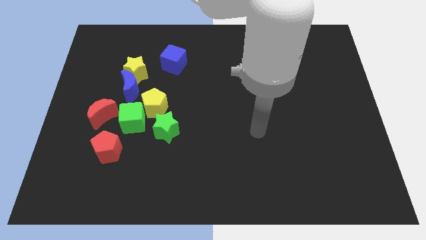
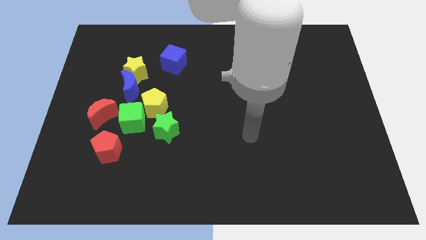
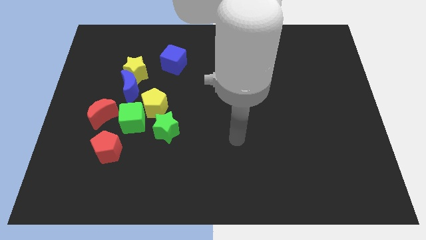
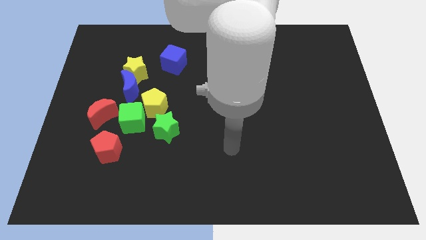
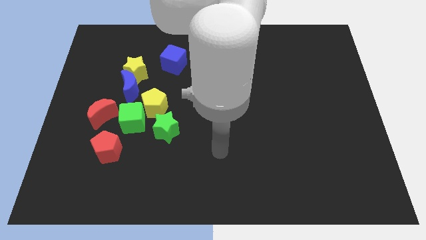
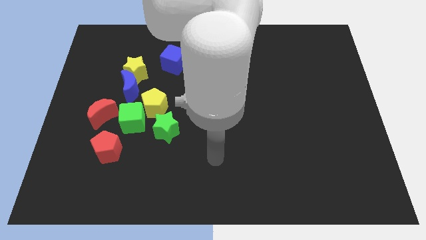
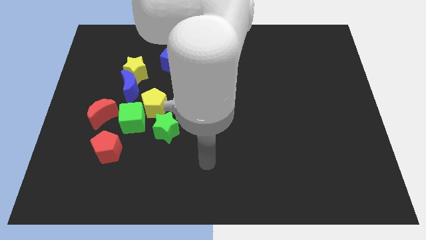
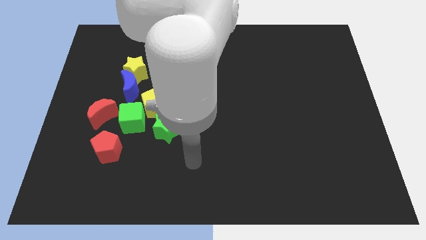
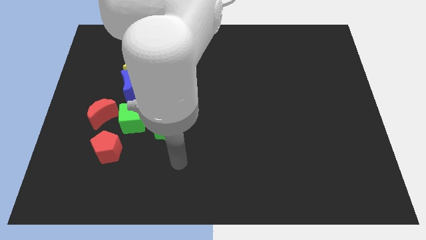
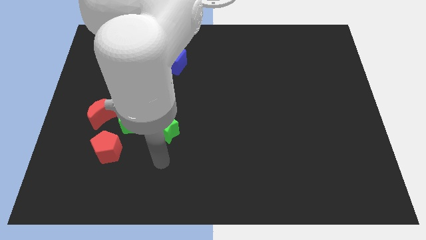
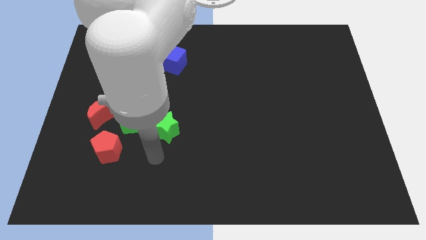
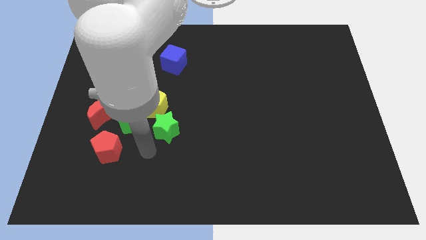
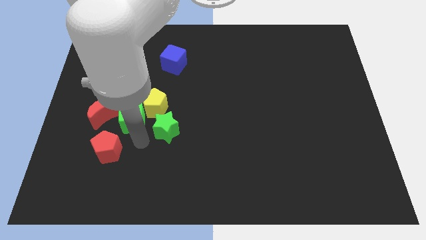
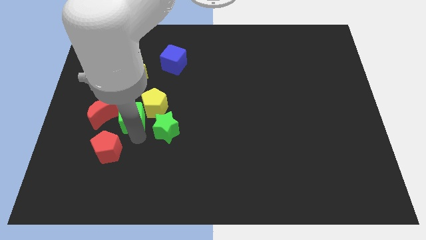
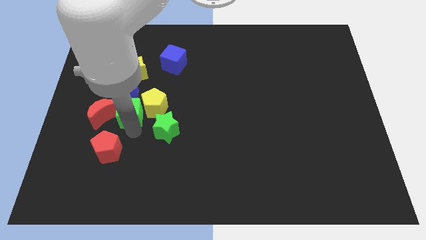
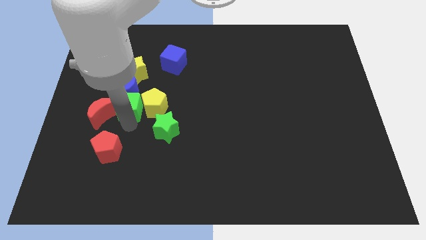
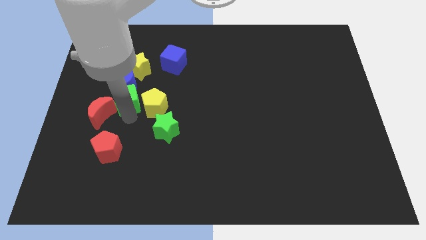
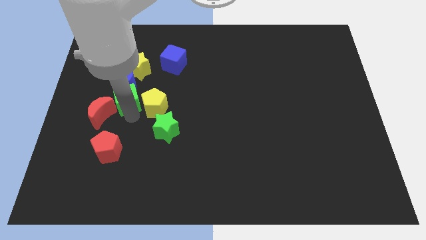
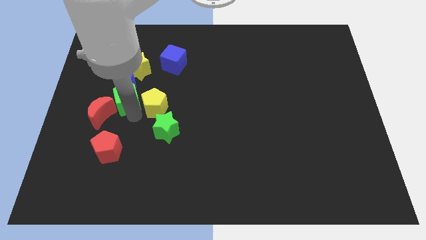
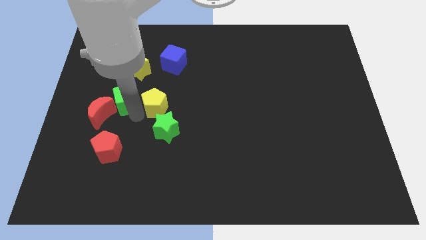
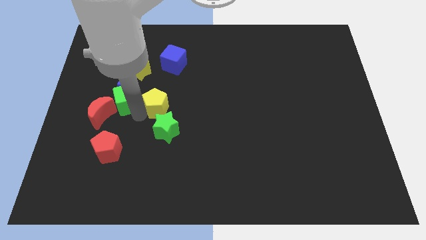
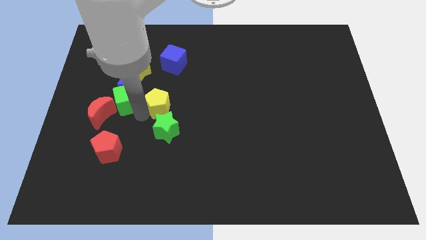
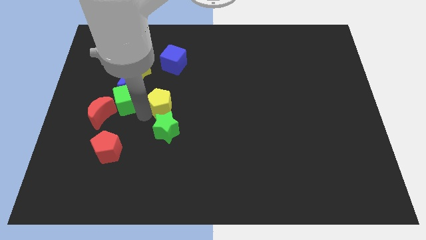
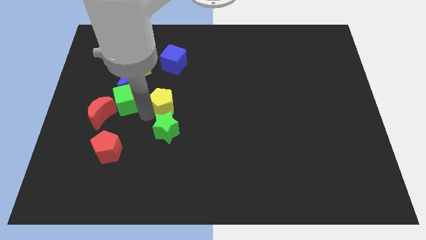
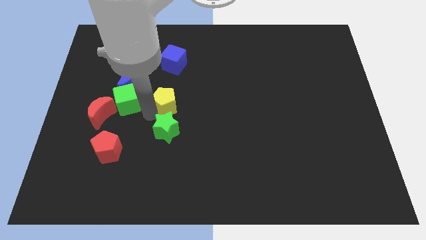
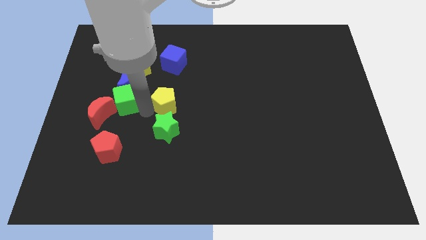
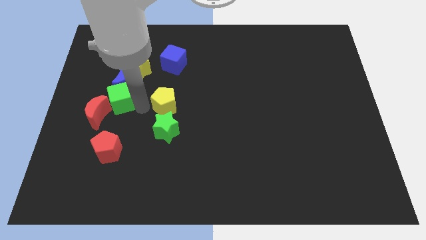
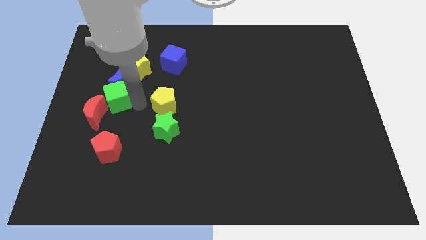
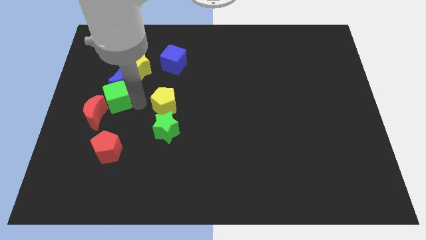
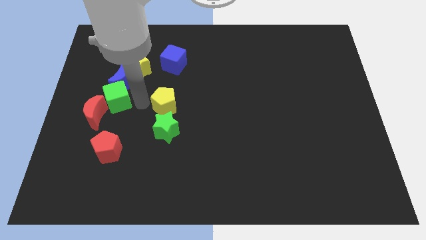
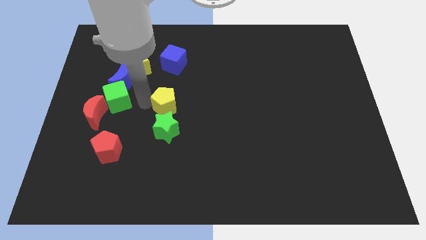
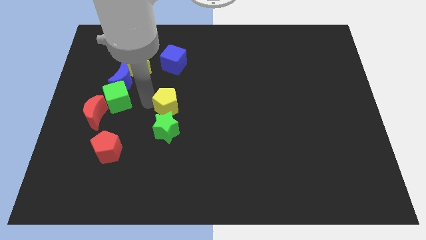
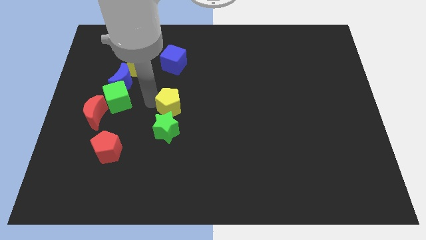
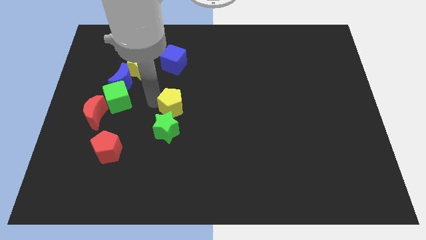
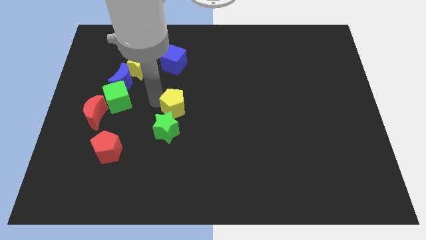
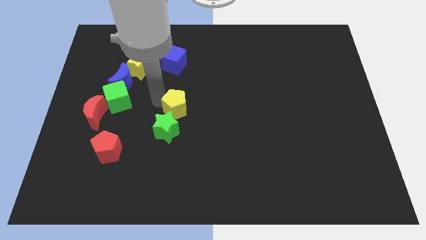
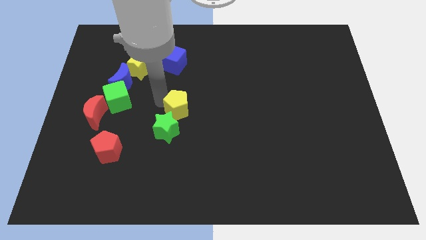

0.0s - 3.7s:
move the yellow pentagon away from the green cube, green star, and blue moon

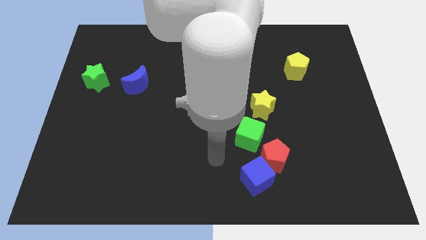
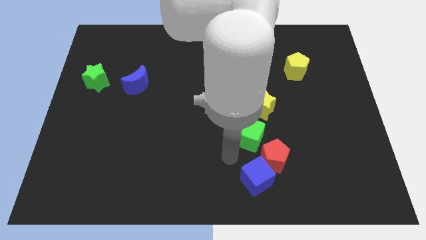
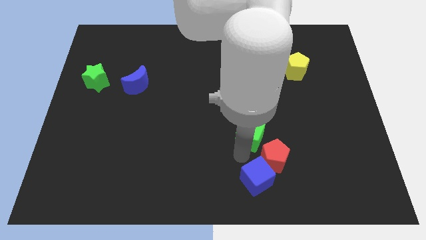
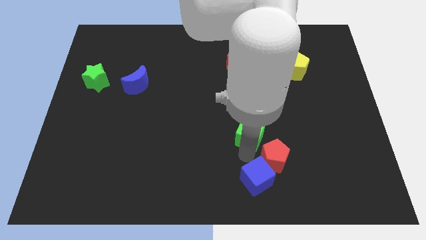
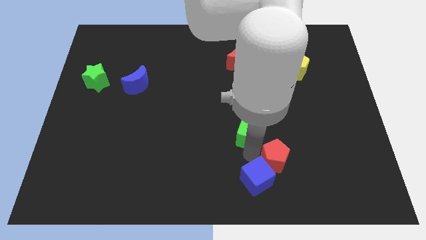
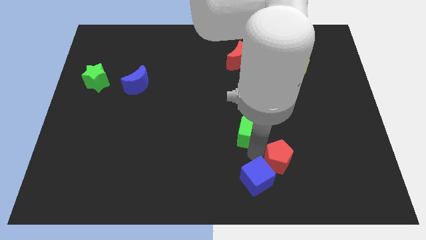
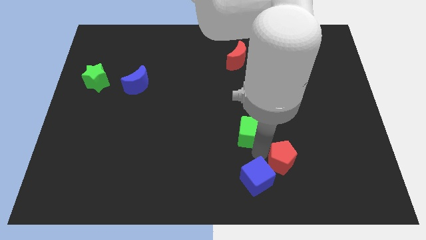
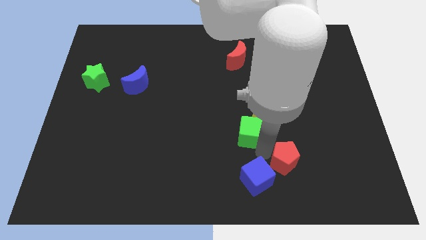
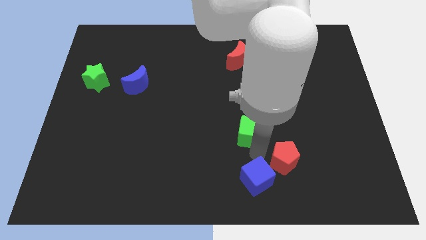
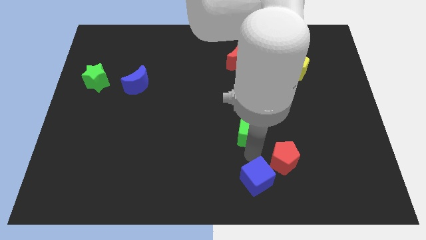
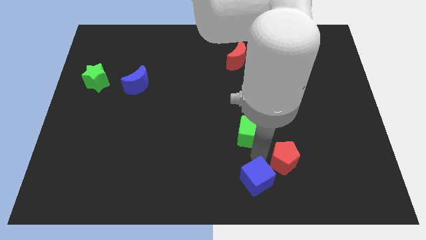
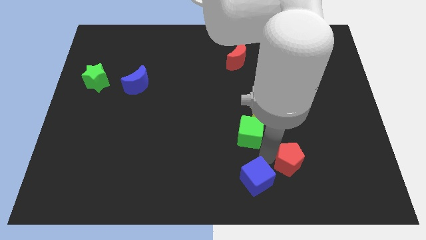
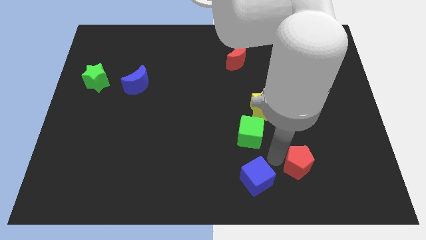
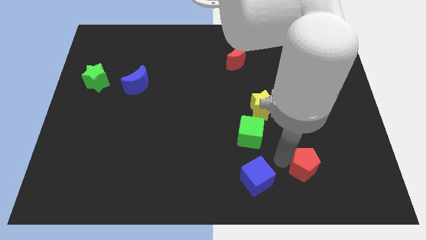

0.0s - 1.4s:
move the red pentagon away from the blue cube and green cube

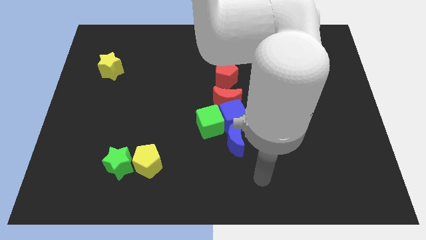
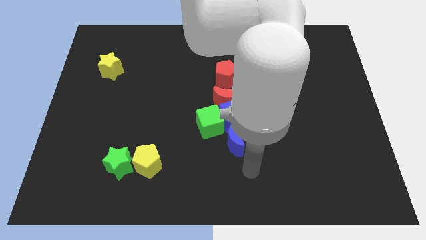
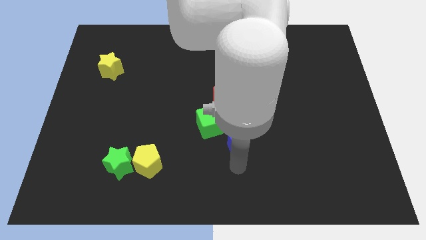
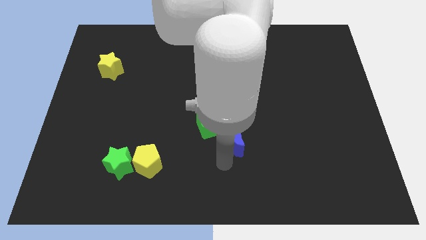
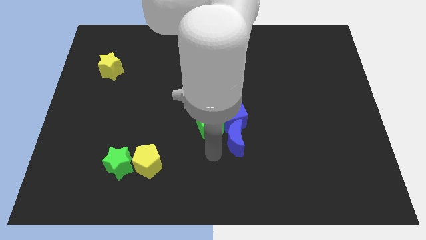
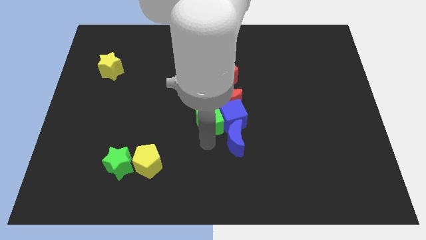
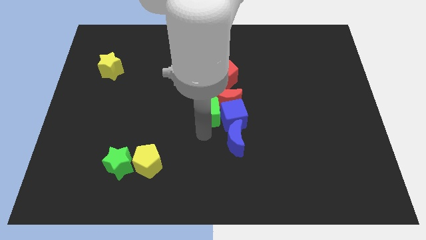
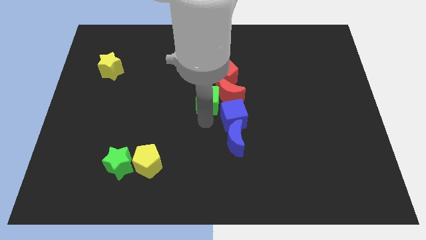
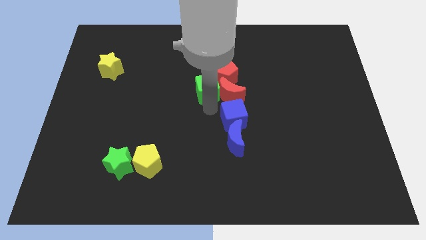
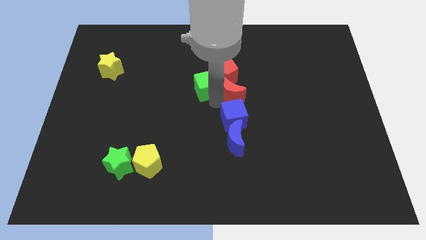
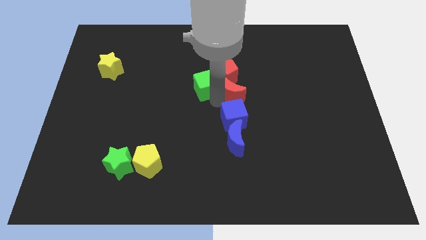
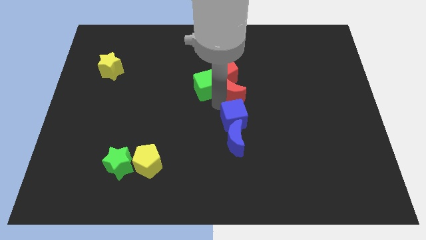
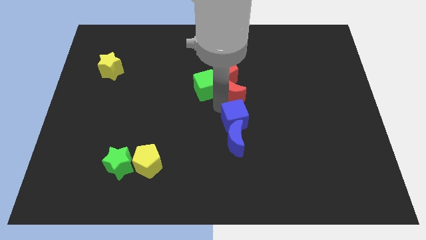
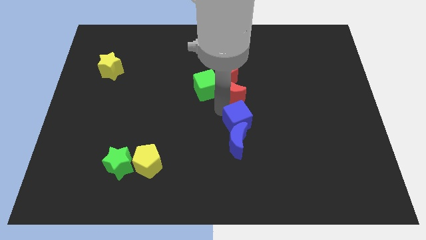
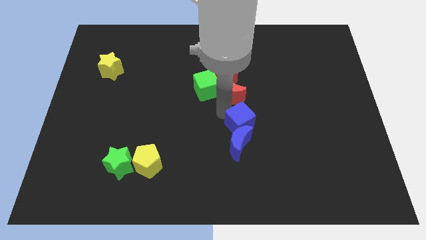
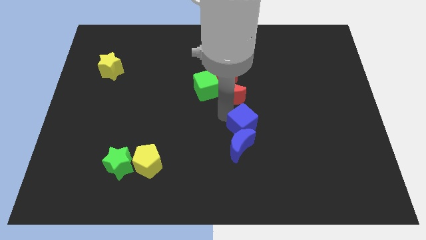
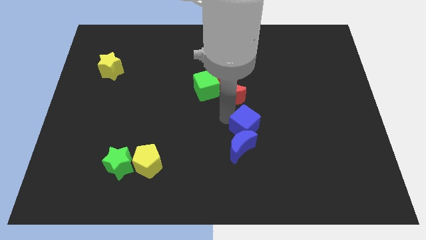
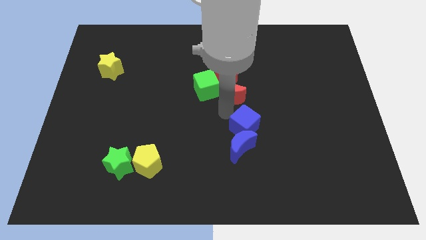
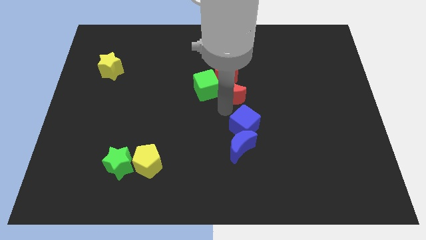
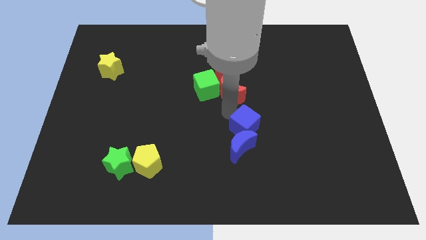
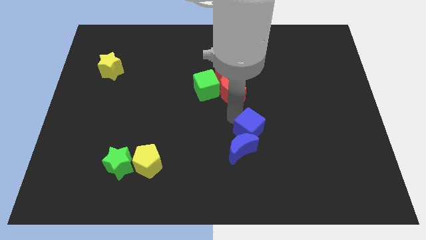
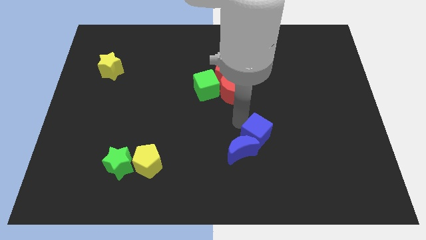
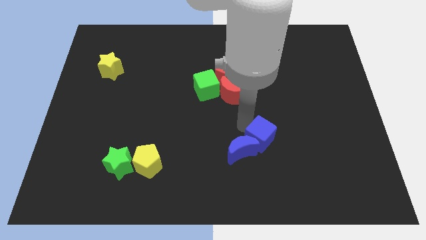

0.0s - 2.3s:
move the blue cube away from the clump

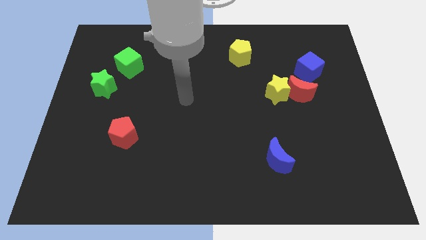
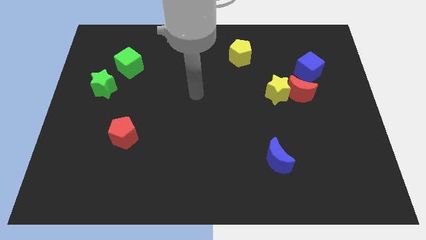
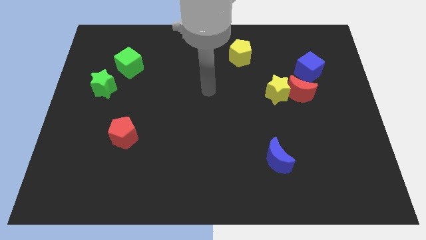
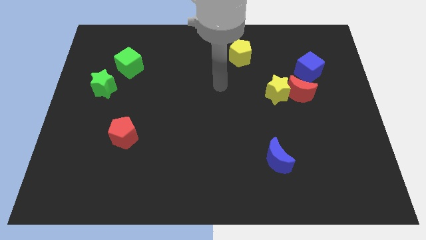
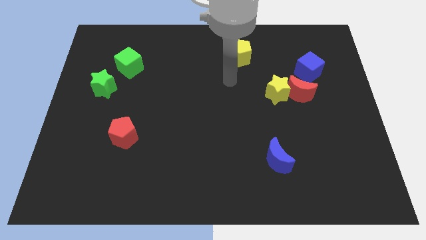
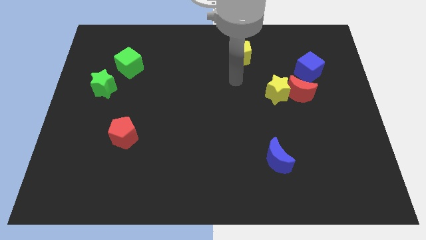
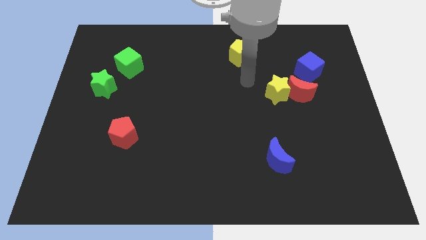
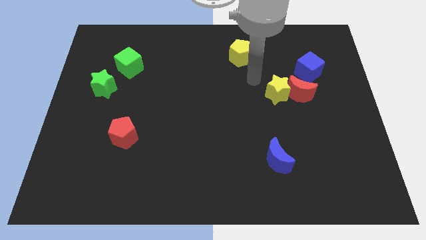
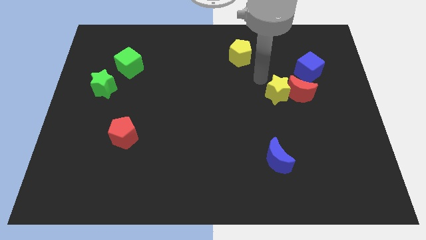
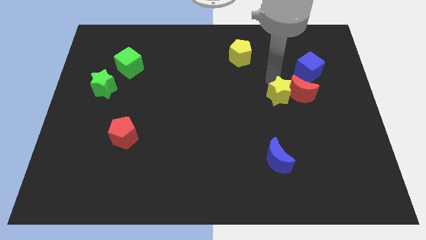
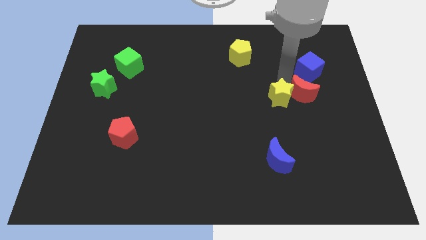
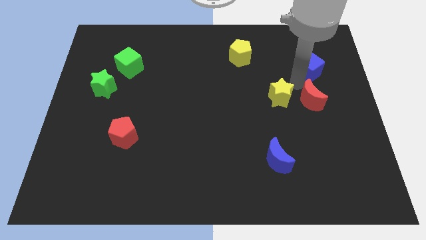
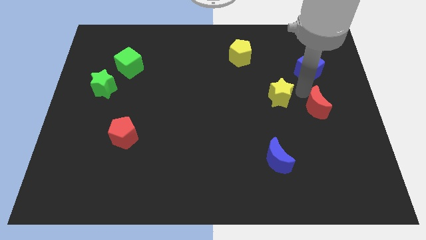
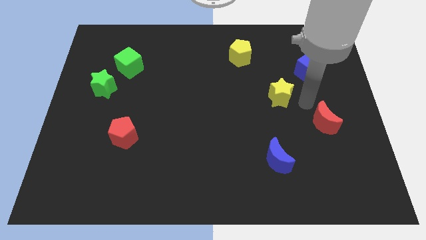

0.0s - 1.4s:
move the yellow star away from the red moon

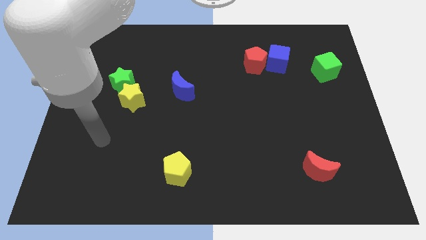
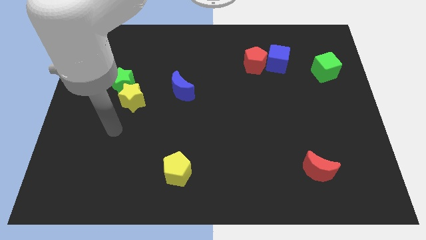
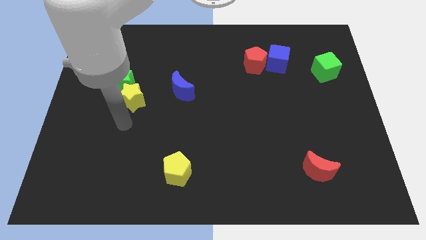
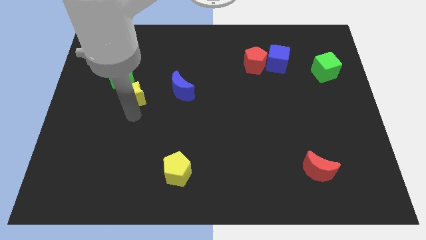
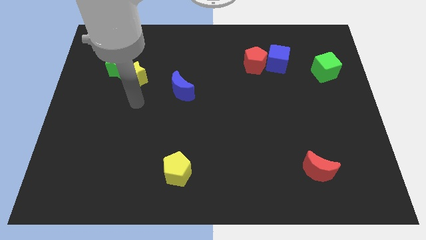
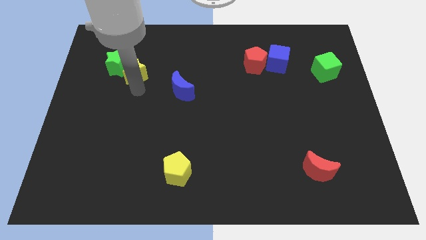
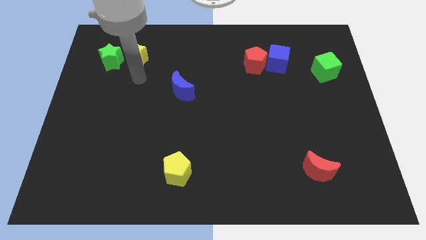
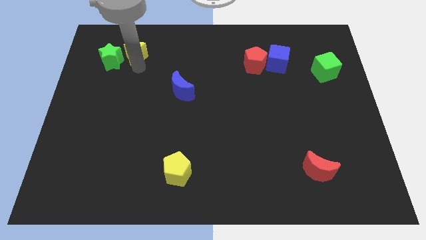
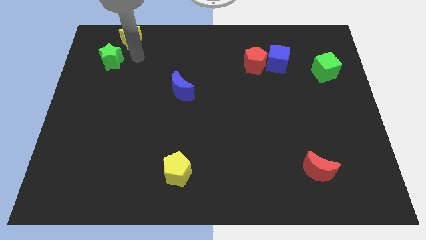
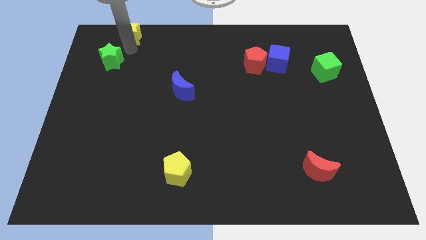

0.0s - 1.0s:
separate the green star from the yellow star
